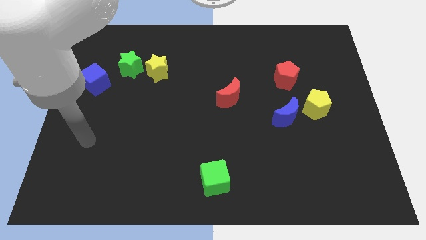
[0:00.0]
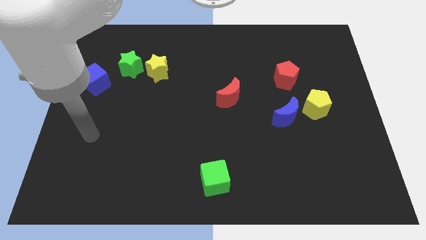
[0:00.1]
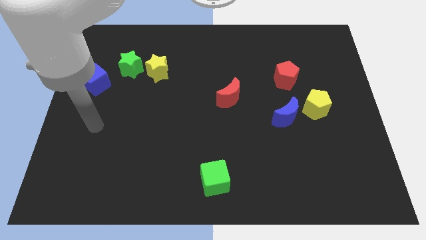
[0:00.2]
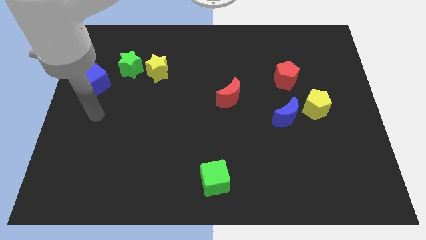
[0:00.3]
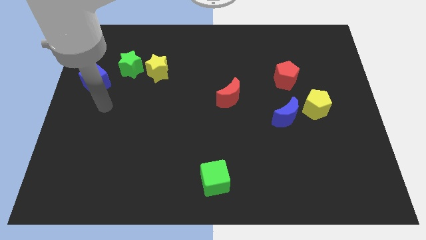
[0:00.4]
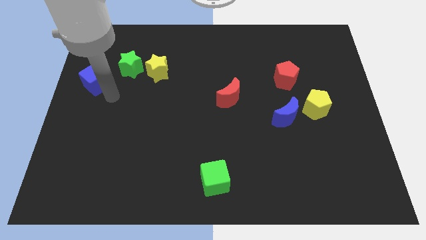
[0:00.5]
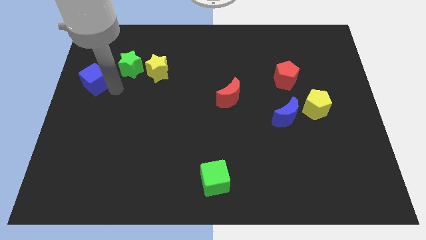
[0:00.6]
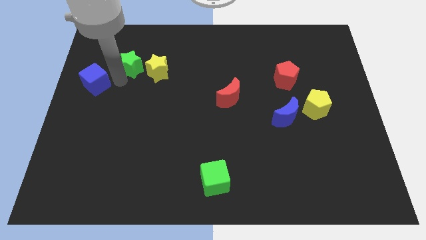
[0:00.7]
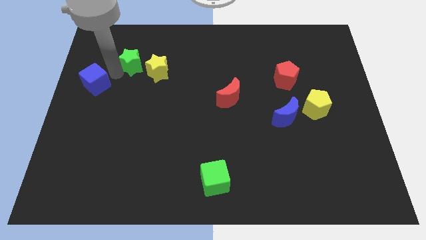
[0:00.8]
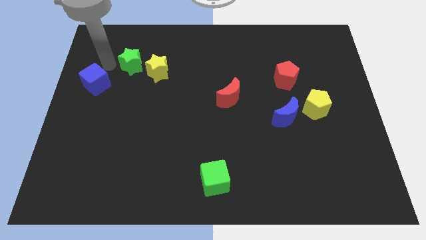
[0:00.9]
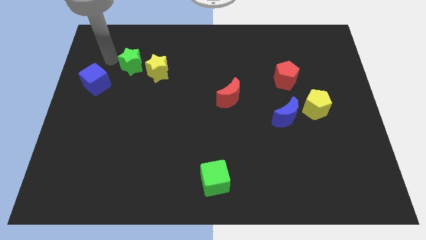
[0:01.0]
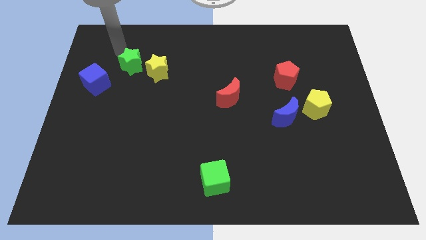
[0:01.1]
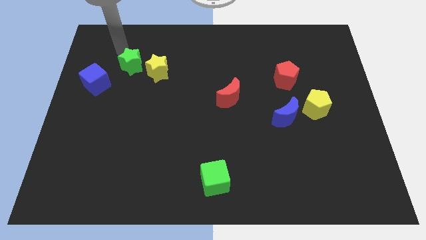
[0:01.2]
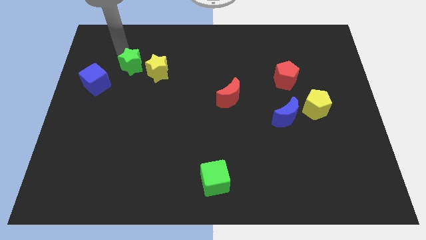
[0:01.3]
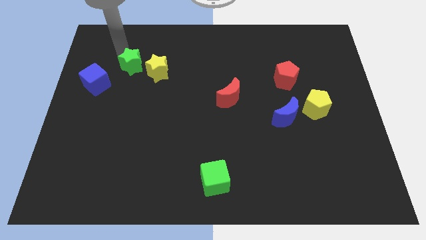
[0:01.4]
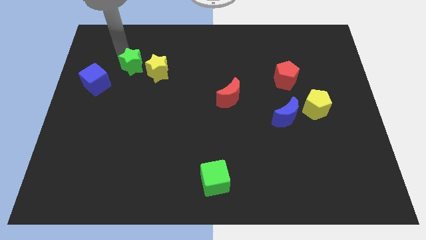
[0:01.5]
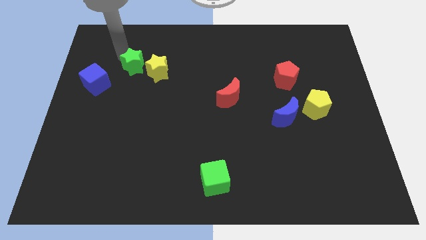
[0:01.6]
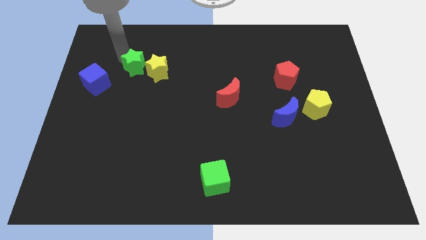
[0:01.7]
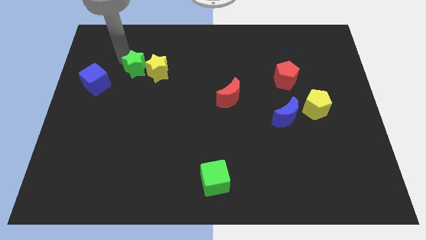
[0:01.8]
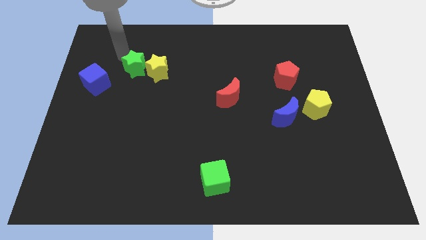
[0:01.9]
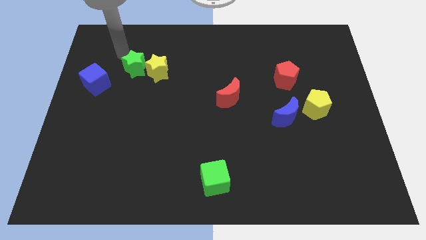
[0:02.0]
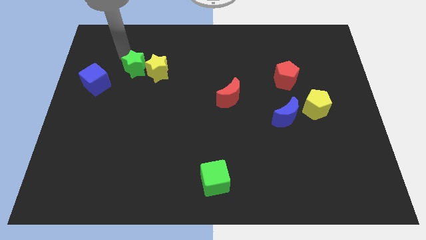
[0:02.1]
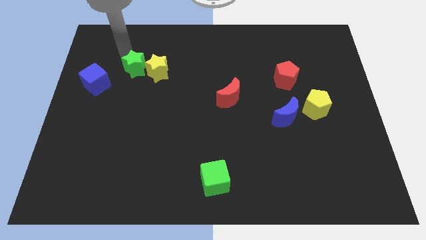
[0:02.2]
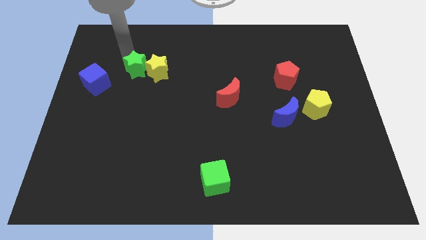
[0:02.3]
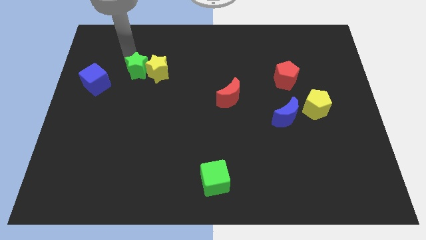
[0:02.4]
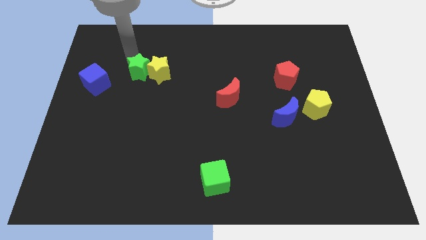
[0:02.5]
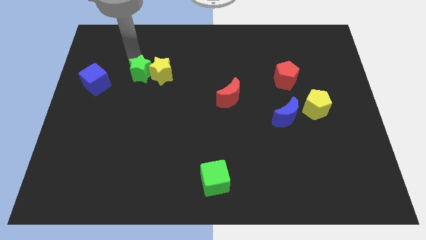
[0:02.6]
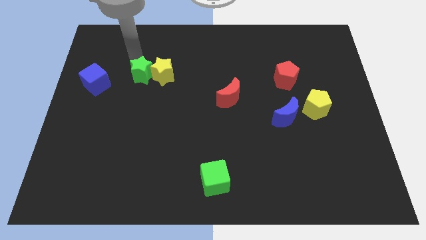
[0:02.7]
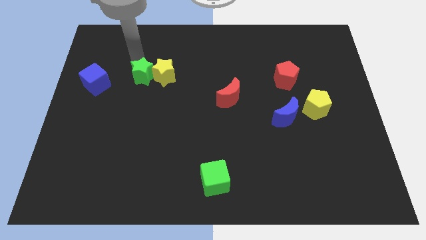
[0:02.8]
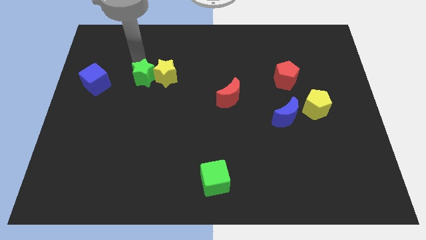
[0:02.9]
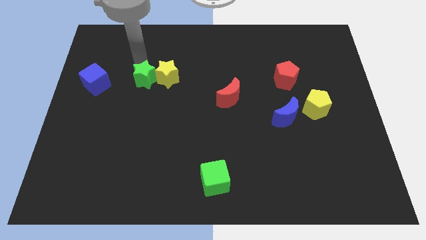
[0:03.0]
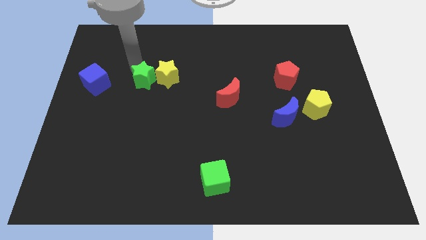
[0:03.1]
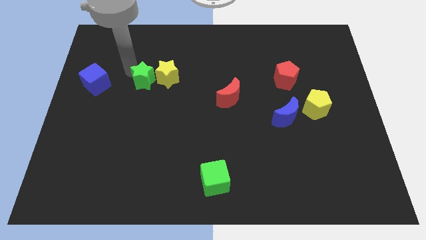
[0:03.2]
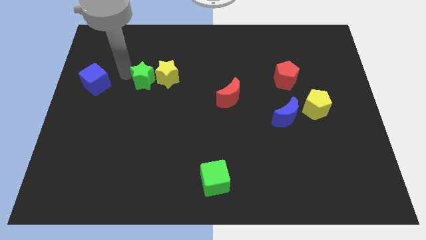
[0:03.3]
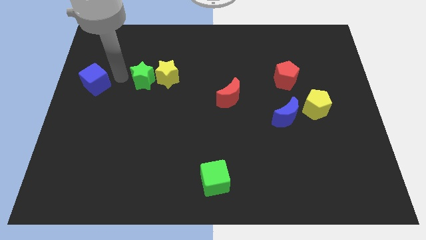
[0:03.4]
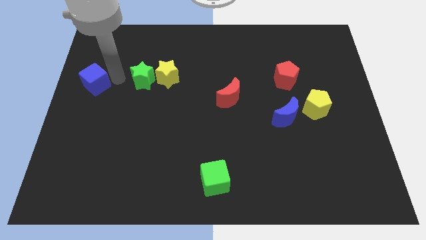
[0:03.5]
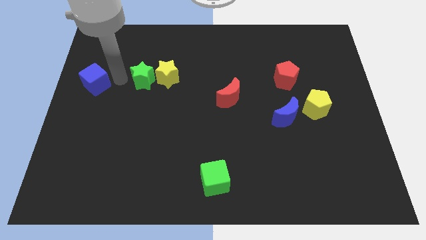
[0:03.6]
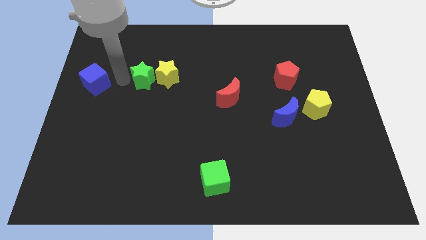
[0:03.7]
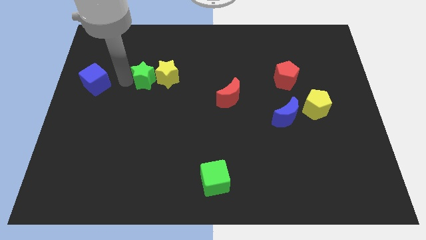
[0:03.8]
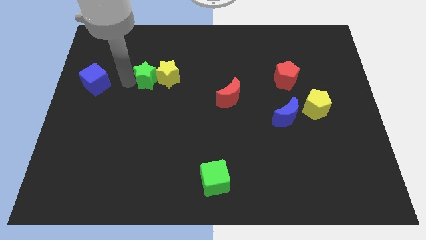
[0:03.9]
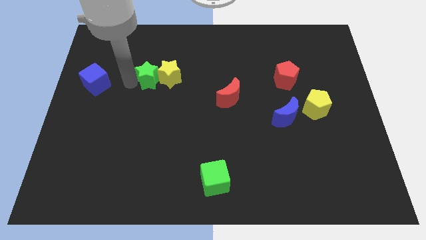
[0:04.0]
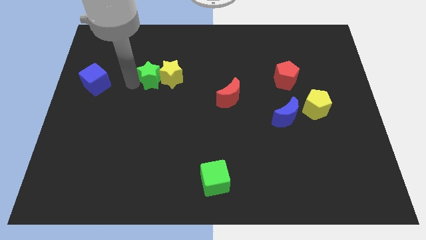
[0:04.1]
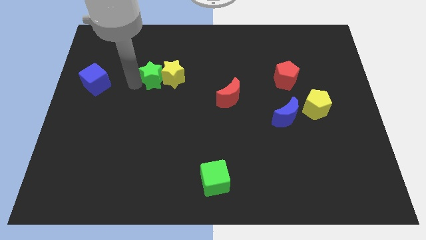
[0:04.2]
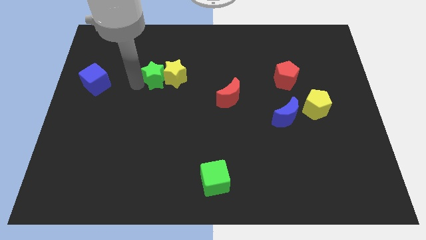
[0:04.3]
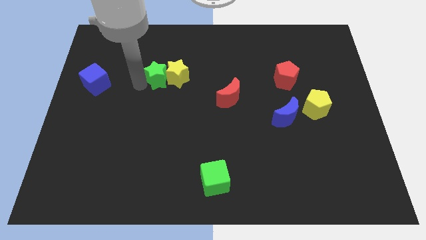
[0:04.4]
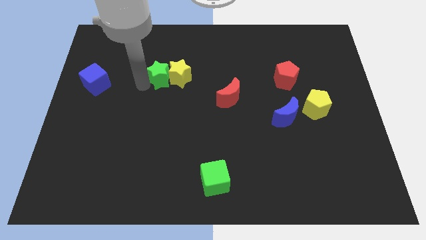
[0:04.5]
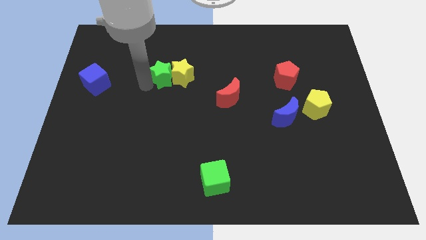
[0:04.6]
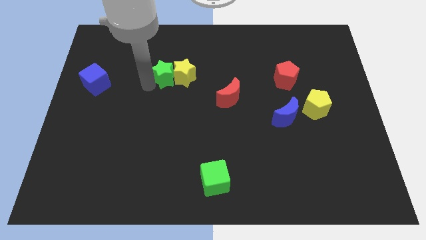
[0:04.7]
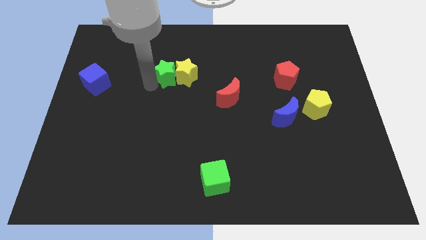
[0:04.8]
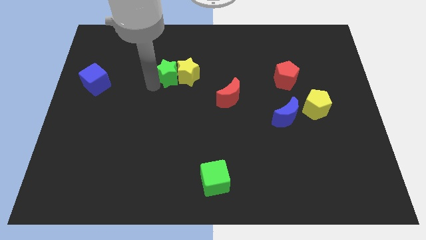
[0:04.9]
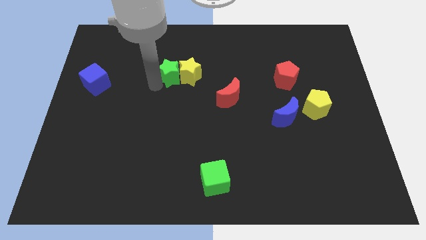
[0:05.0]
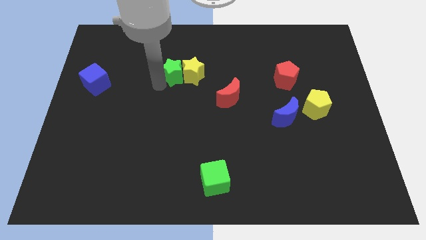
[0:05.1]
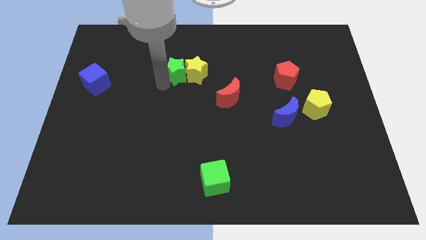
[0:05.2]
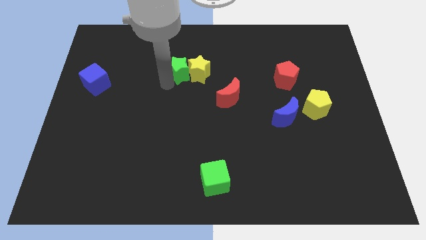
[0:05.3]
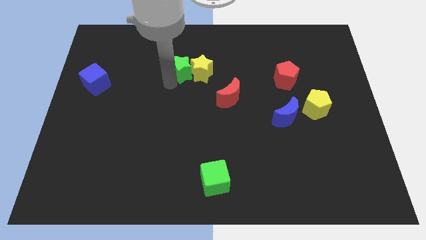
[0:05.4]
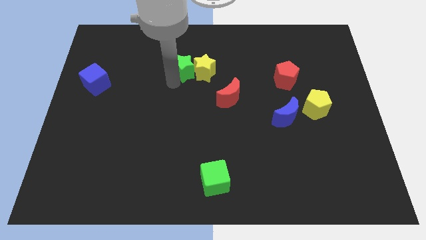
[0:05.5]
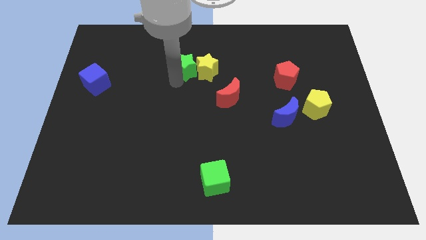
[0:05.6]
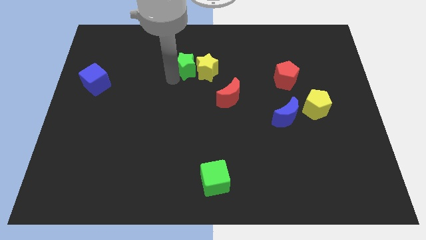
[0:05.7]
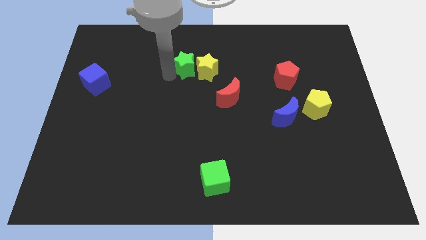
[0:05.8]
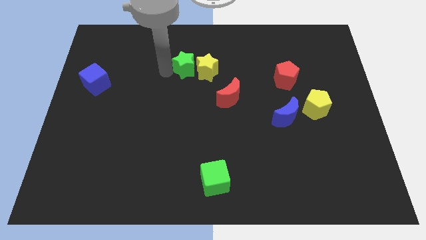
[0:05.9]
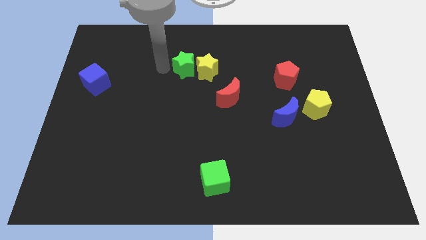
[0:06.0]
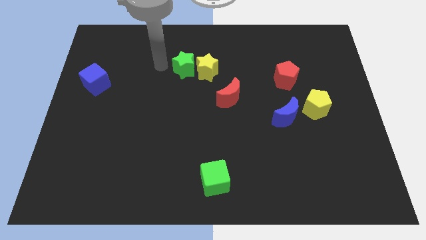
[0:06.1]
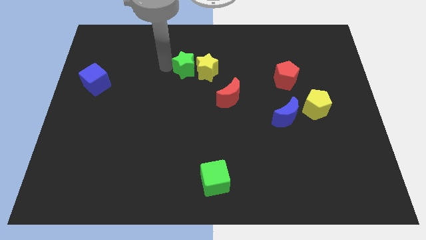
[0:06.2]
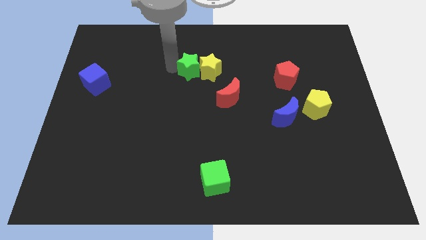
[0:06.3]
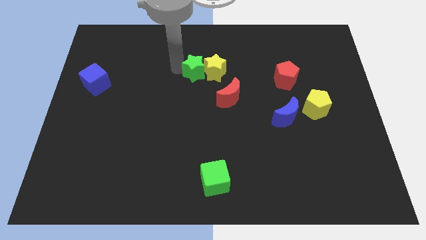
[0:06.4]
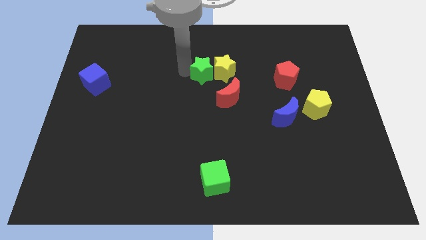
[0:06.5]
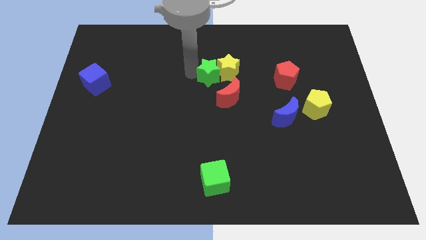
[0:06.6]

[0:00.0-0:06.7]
push the green star right

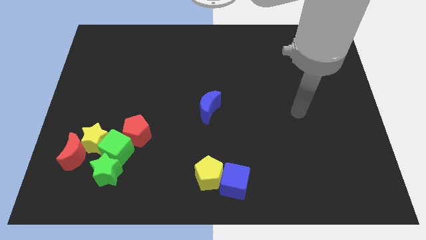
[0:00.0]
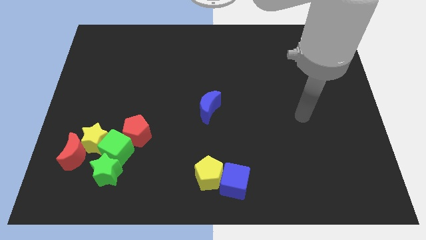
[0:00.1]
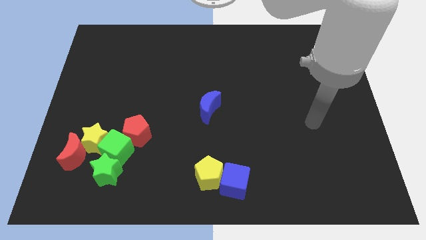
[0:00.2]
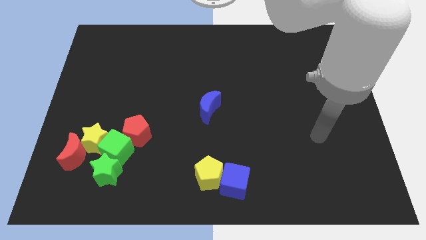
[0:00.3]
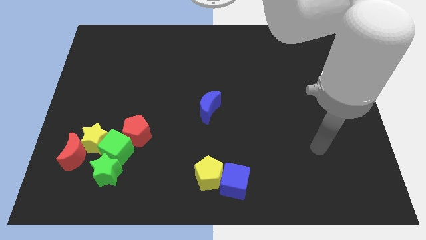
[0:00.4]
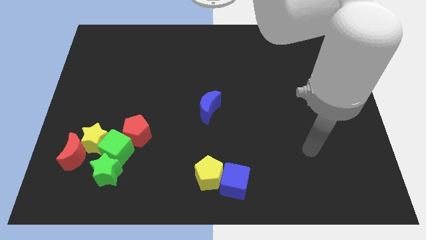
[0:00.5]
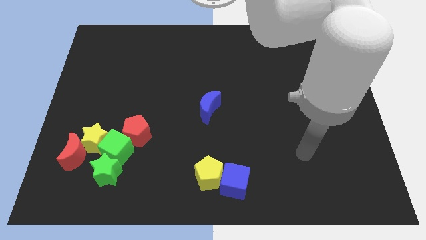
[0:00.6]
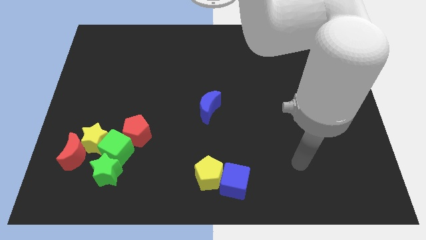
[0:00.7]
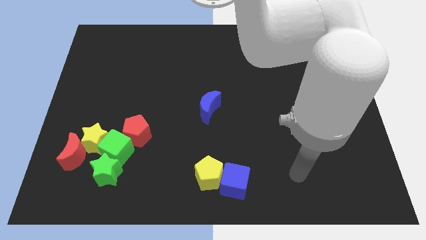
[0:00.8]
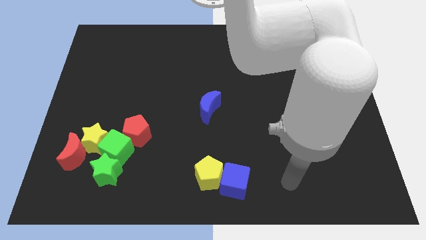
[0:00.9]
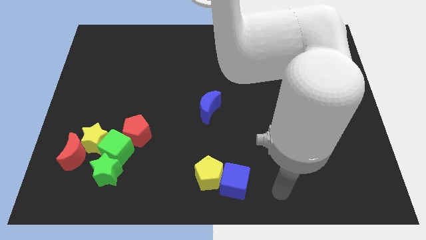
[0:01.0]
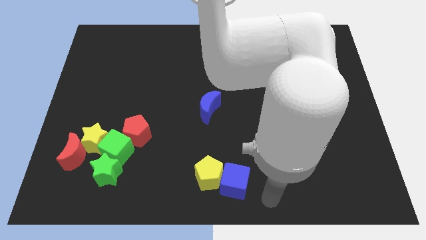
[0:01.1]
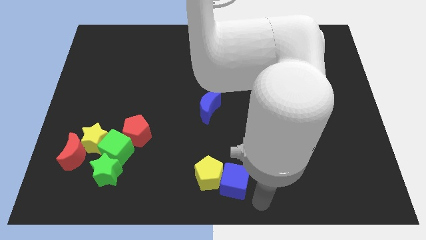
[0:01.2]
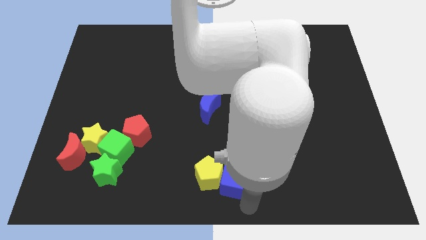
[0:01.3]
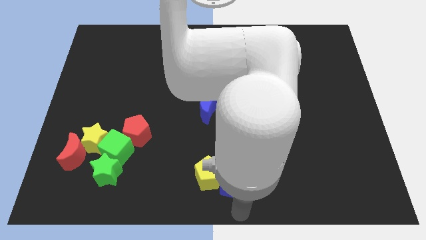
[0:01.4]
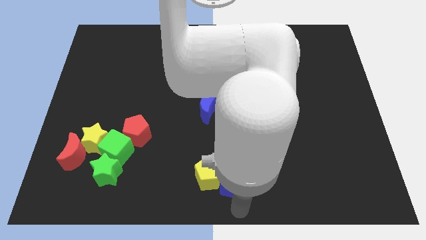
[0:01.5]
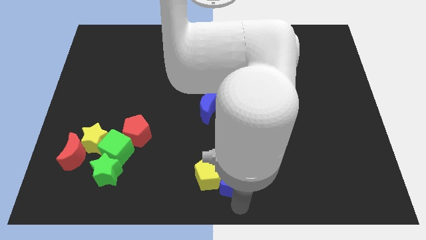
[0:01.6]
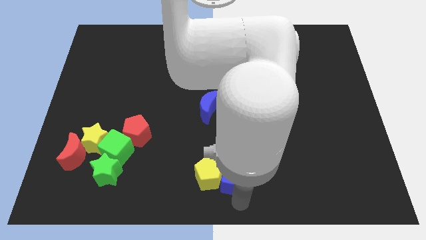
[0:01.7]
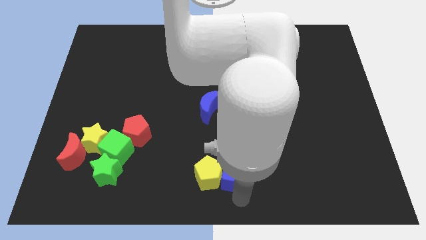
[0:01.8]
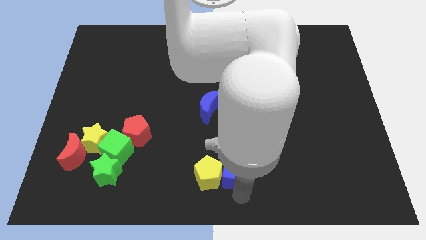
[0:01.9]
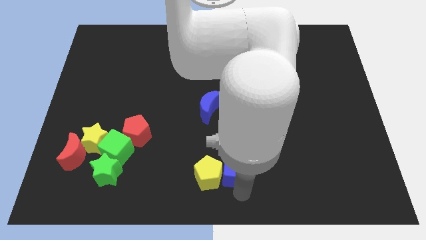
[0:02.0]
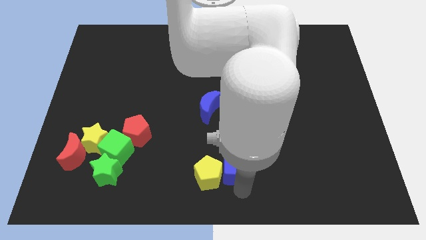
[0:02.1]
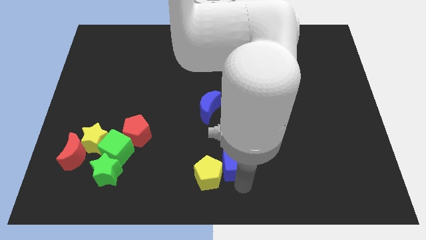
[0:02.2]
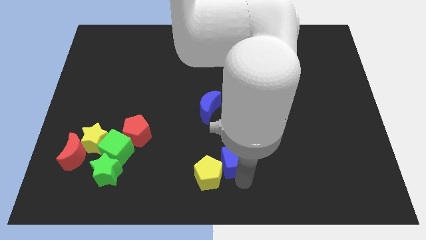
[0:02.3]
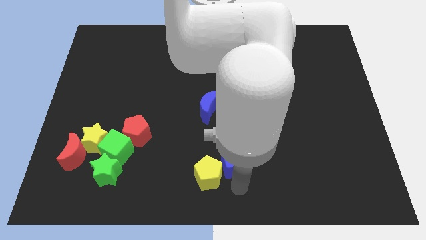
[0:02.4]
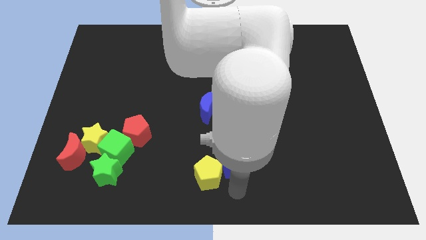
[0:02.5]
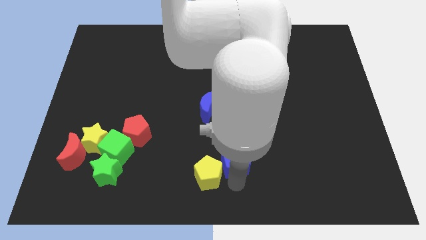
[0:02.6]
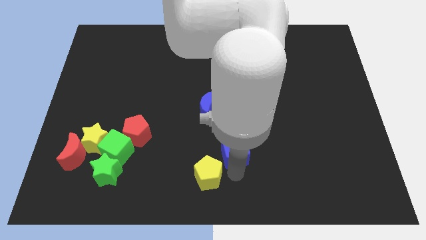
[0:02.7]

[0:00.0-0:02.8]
move the blue cube somewhat up
